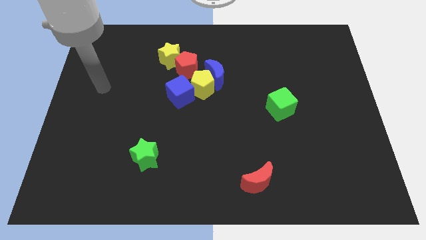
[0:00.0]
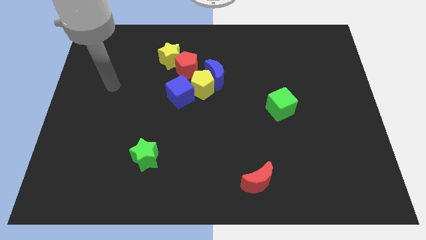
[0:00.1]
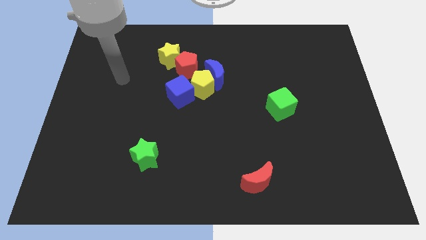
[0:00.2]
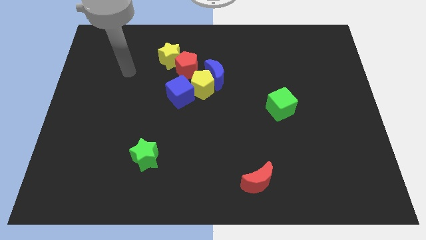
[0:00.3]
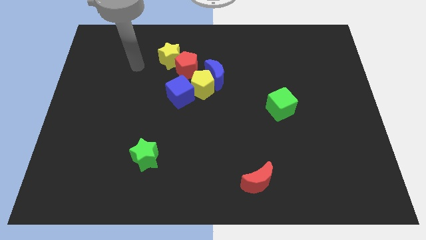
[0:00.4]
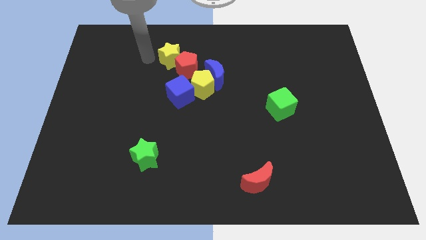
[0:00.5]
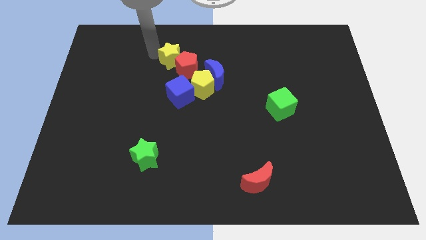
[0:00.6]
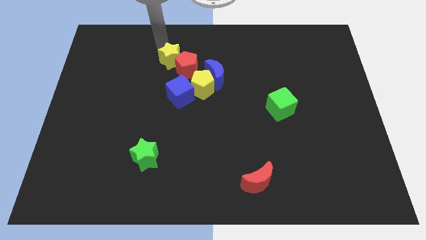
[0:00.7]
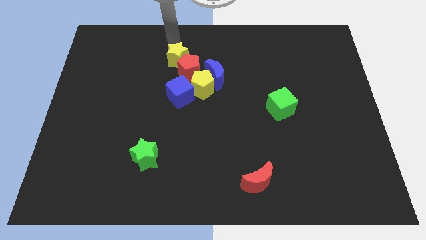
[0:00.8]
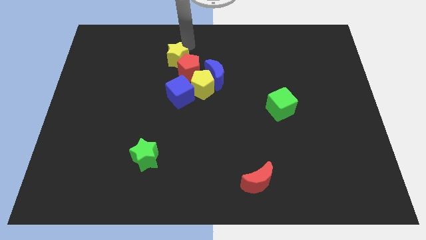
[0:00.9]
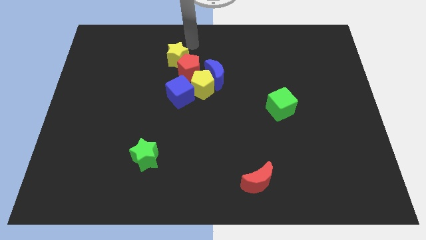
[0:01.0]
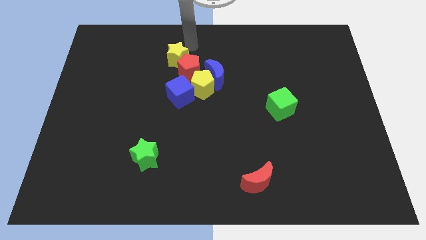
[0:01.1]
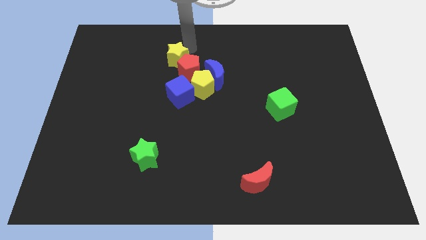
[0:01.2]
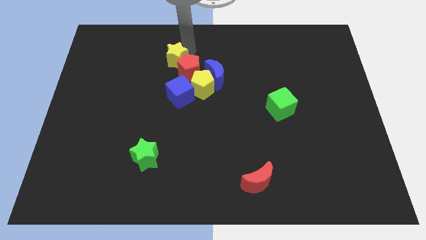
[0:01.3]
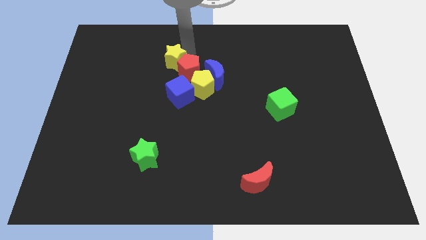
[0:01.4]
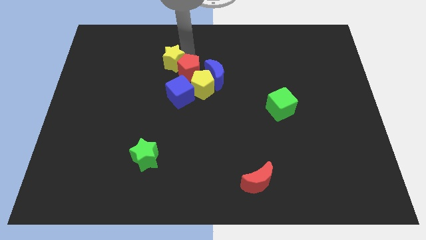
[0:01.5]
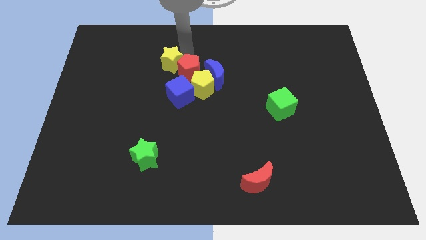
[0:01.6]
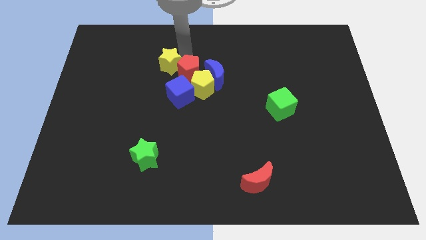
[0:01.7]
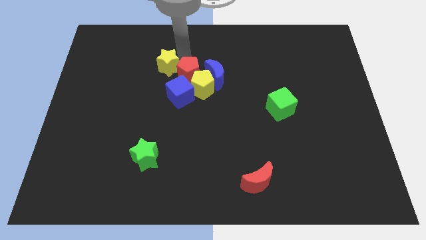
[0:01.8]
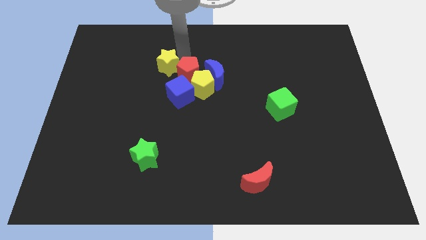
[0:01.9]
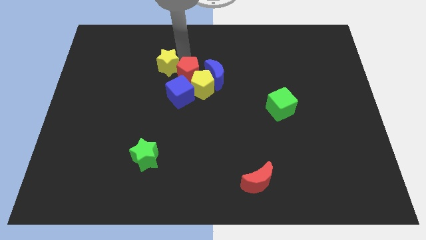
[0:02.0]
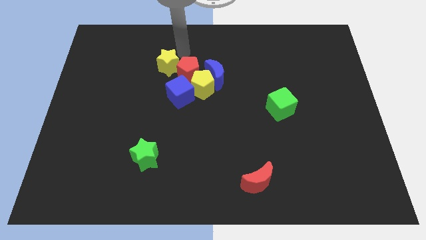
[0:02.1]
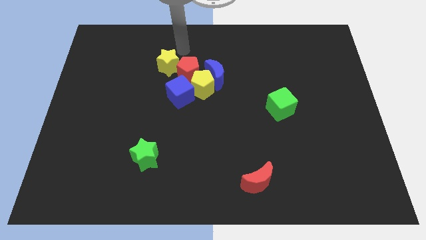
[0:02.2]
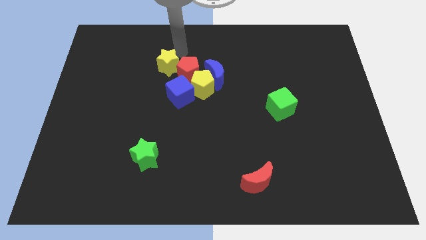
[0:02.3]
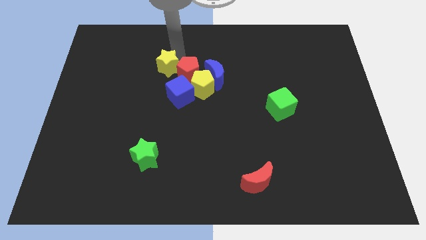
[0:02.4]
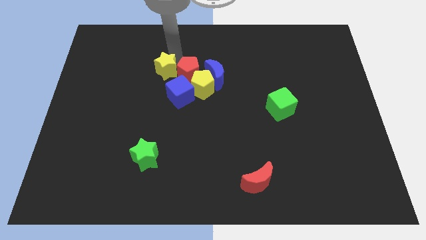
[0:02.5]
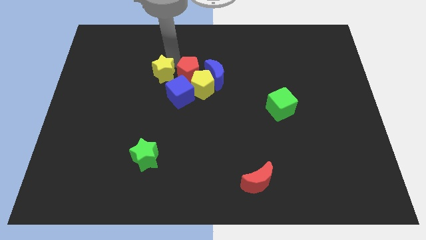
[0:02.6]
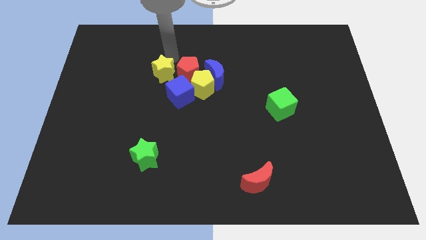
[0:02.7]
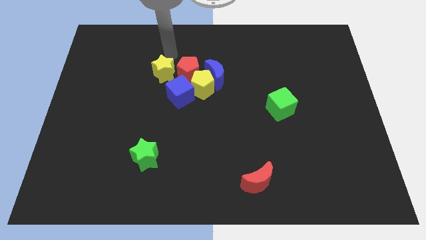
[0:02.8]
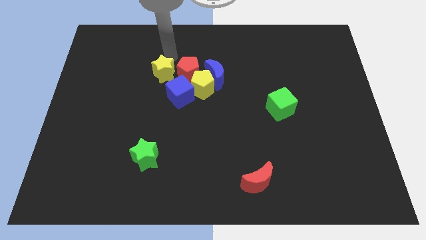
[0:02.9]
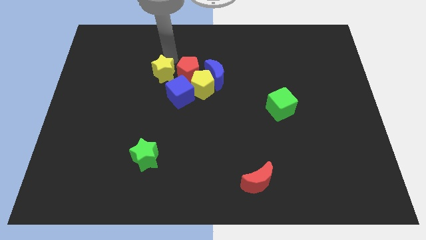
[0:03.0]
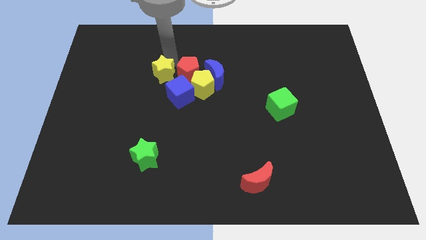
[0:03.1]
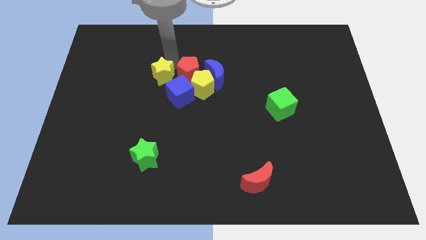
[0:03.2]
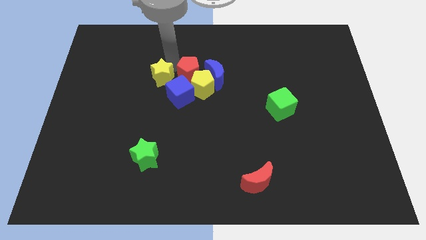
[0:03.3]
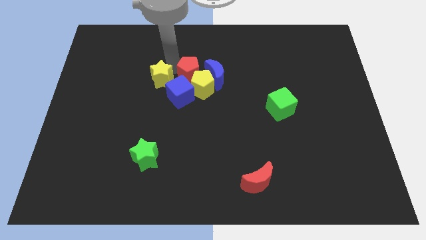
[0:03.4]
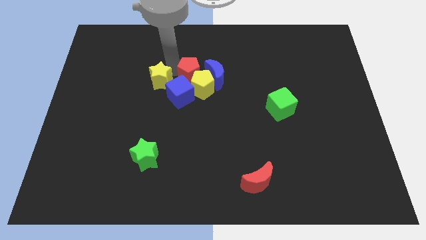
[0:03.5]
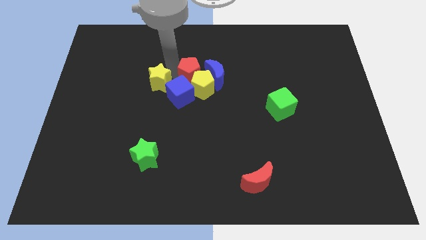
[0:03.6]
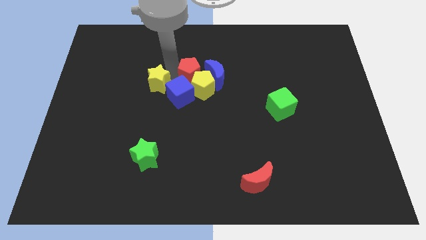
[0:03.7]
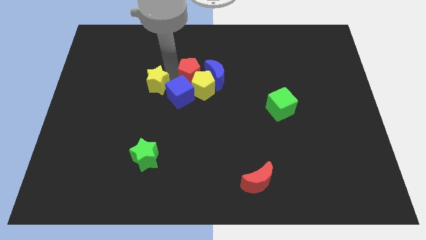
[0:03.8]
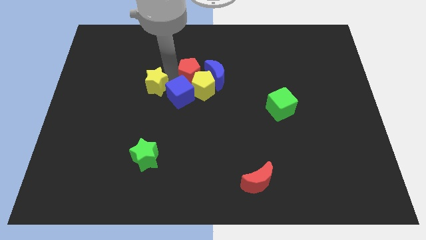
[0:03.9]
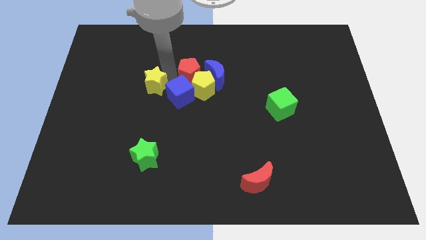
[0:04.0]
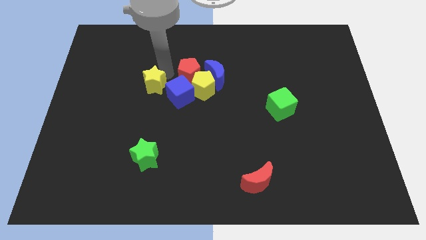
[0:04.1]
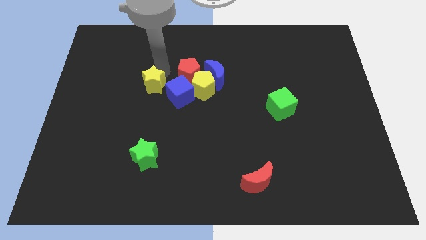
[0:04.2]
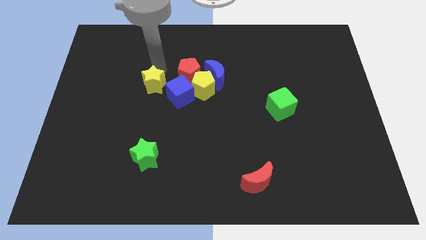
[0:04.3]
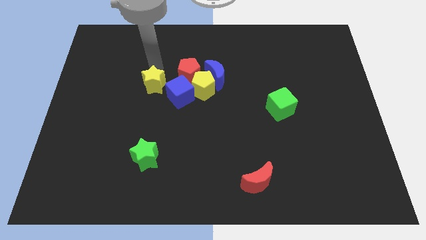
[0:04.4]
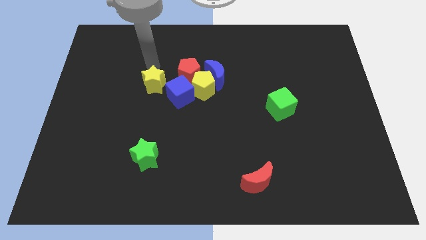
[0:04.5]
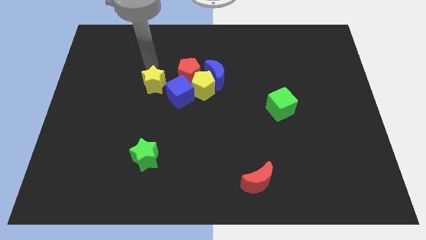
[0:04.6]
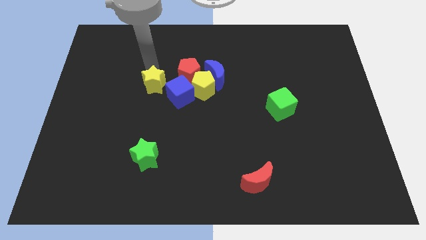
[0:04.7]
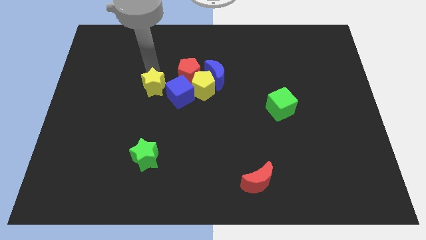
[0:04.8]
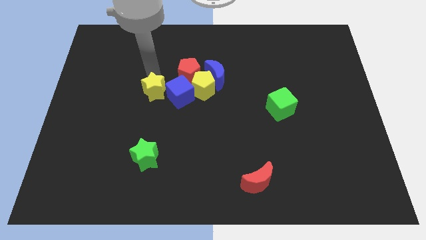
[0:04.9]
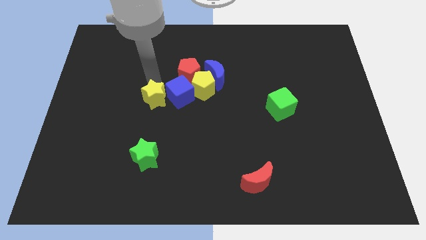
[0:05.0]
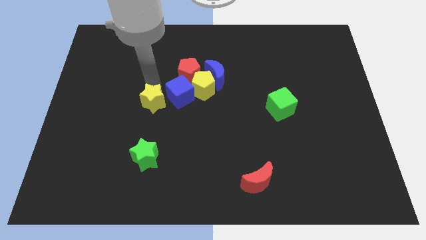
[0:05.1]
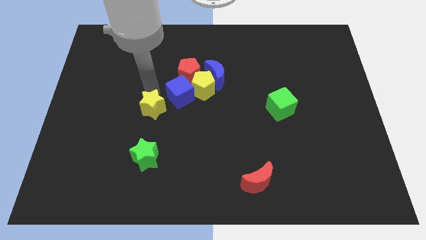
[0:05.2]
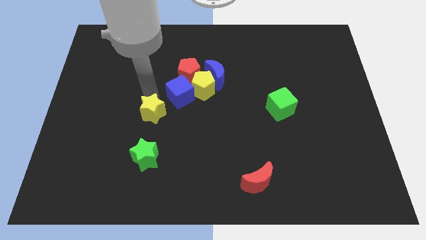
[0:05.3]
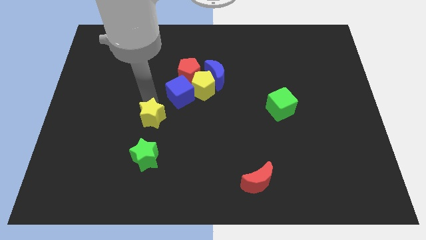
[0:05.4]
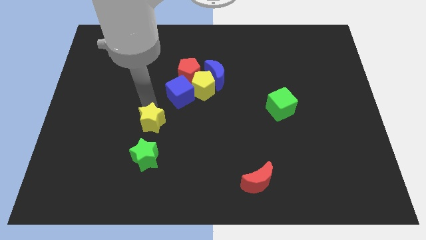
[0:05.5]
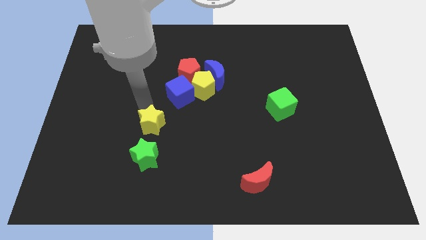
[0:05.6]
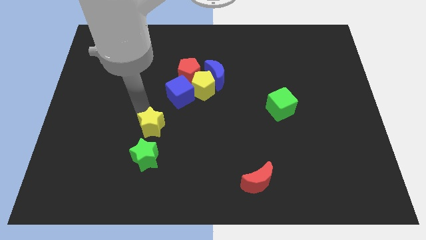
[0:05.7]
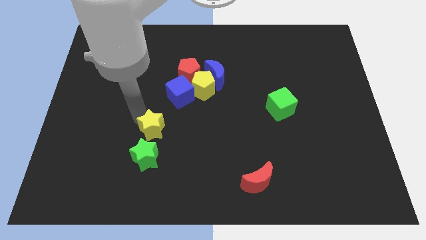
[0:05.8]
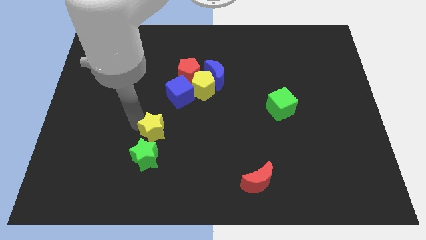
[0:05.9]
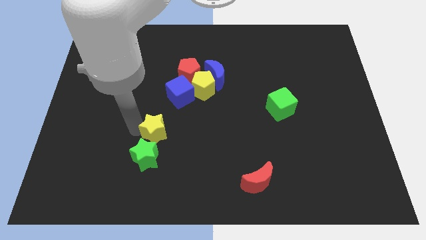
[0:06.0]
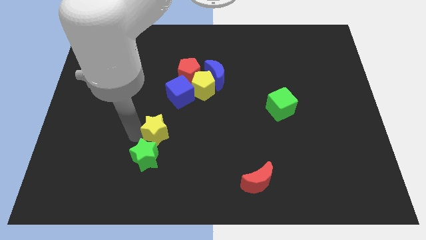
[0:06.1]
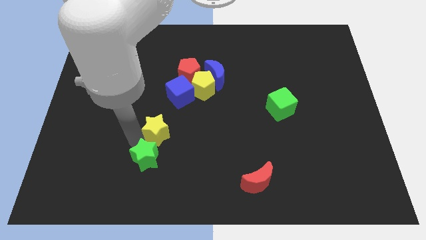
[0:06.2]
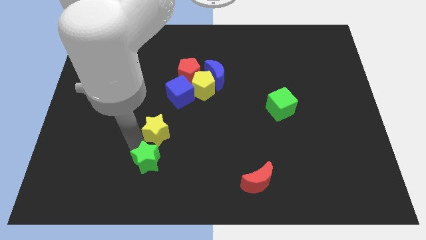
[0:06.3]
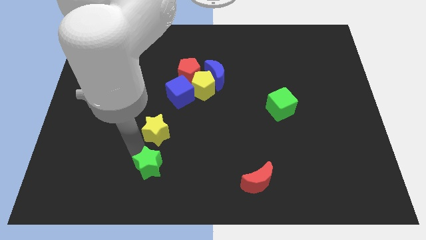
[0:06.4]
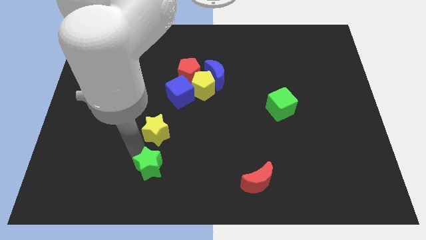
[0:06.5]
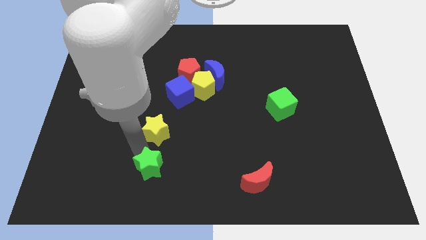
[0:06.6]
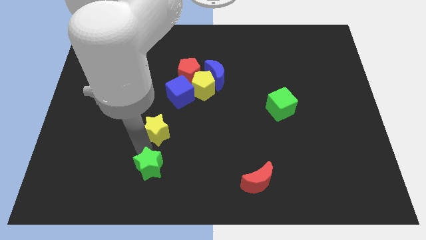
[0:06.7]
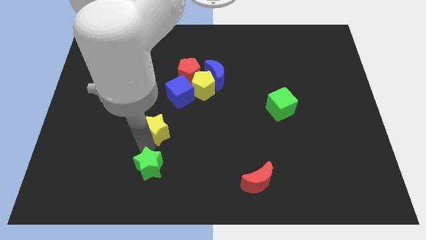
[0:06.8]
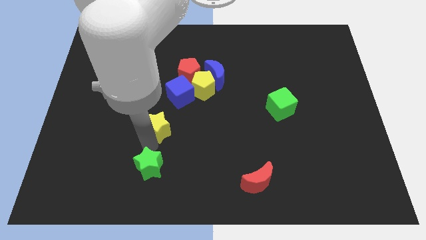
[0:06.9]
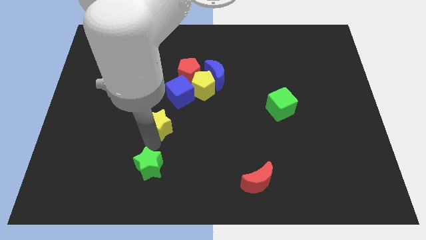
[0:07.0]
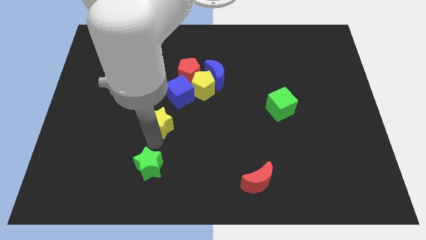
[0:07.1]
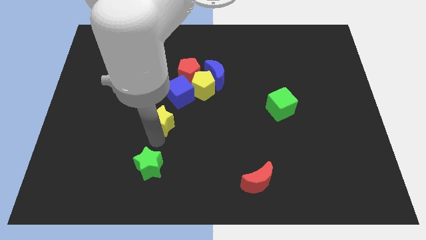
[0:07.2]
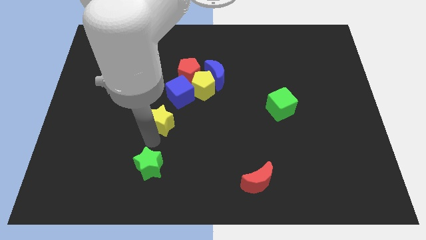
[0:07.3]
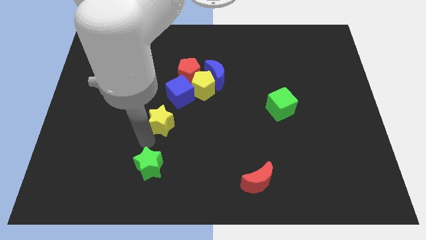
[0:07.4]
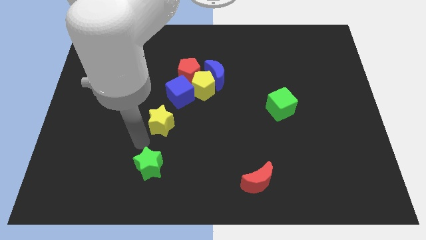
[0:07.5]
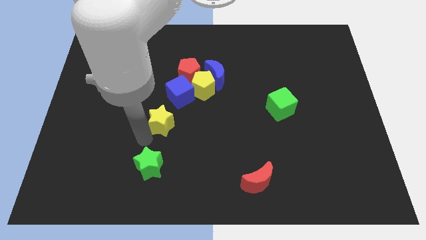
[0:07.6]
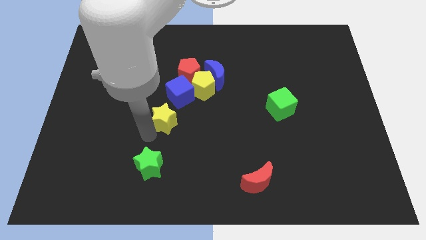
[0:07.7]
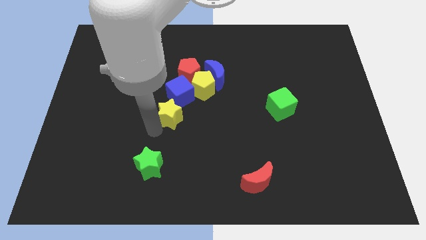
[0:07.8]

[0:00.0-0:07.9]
move the yellow star to the bottom left of the yellow pentagon
